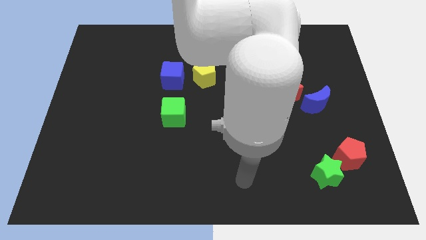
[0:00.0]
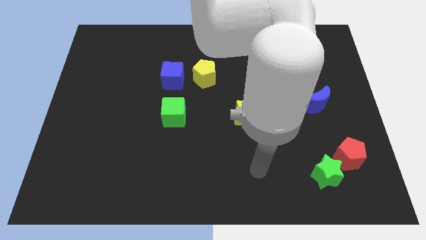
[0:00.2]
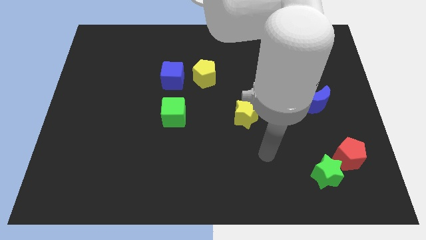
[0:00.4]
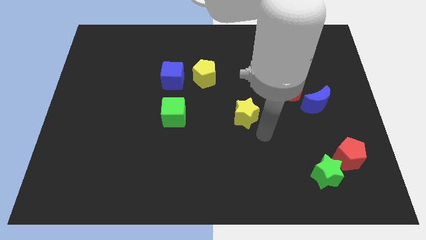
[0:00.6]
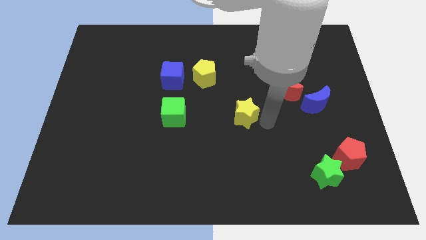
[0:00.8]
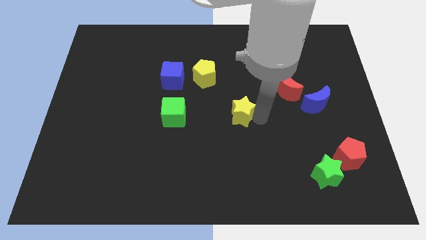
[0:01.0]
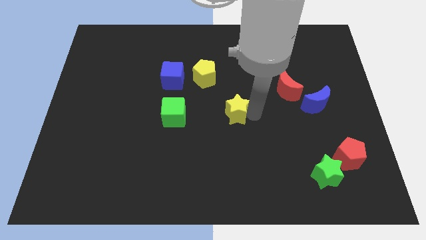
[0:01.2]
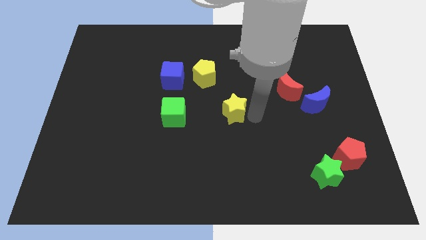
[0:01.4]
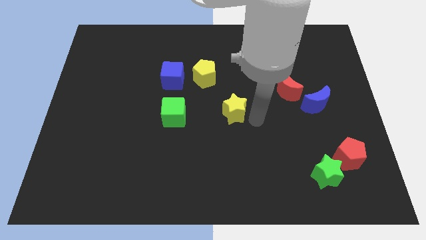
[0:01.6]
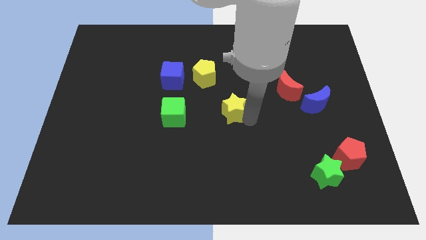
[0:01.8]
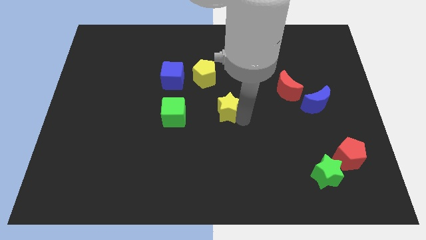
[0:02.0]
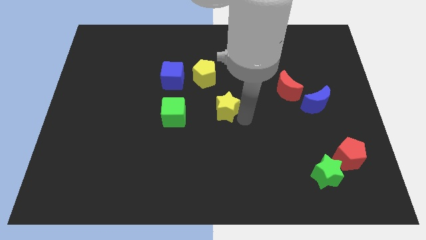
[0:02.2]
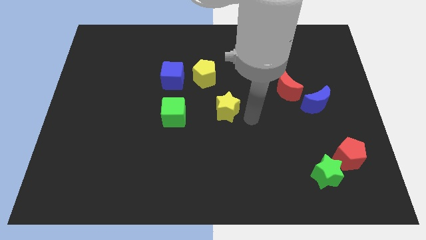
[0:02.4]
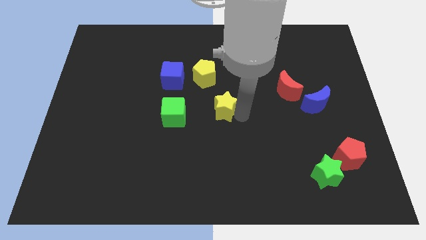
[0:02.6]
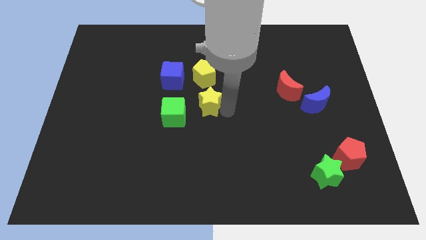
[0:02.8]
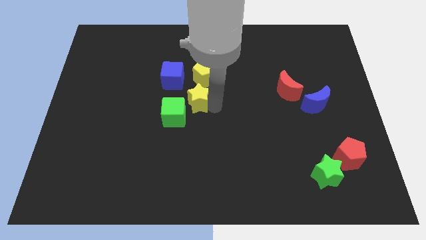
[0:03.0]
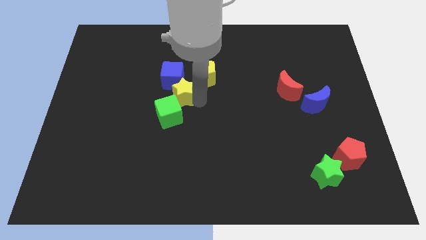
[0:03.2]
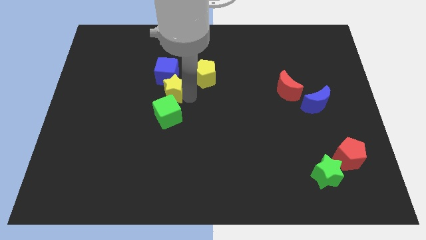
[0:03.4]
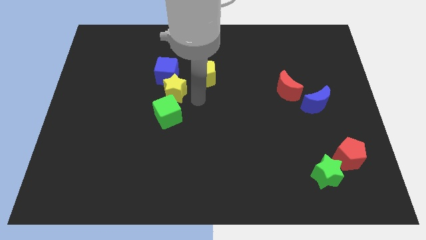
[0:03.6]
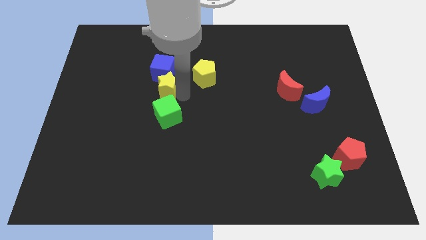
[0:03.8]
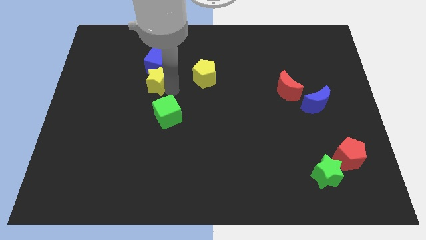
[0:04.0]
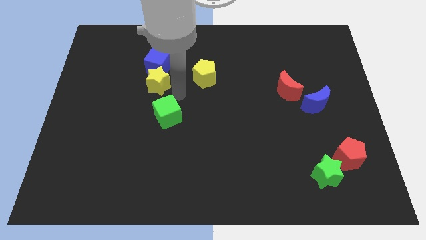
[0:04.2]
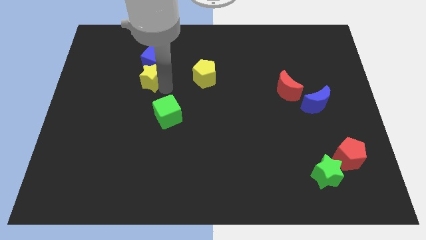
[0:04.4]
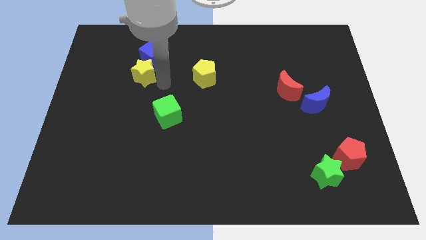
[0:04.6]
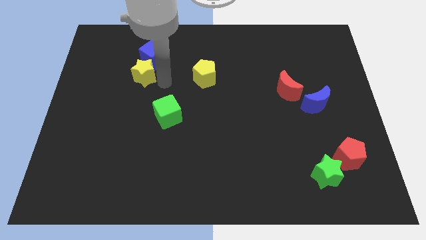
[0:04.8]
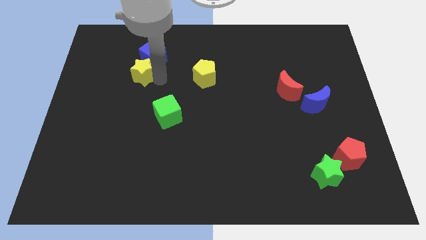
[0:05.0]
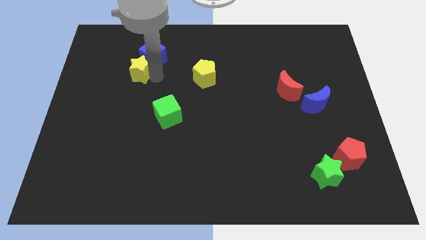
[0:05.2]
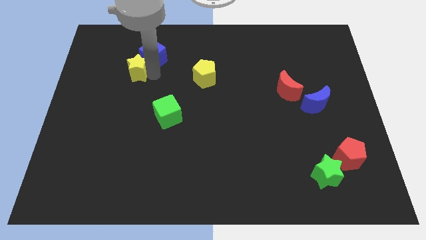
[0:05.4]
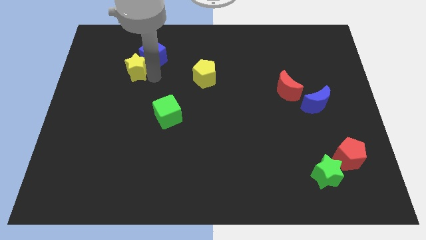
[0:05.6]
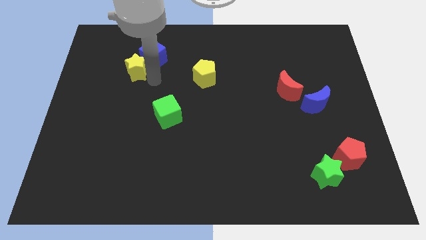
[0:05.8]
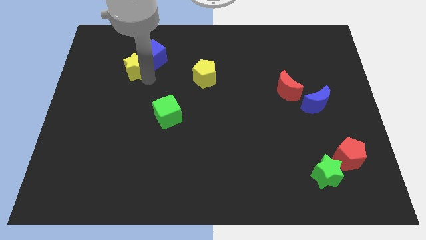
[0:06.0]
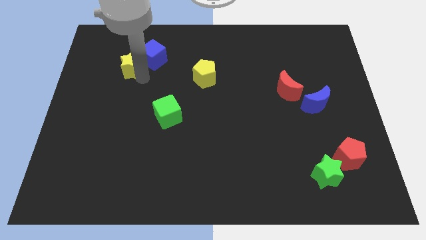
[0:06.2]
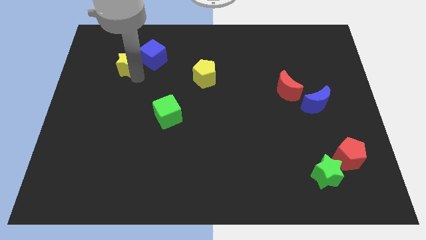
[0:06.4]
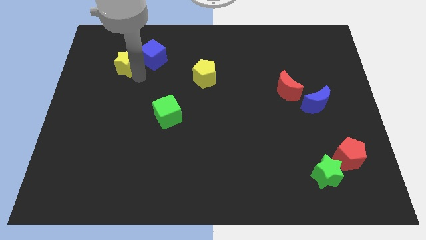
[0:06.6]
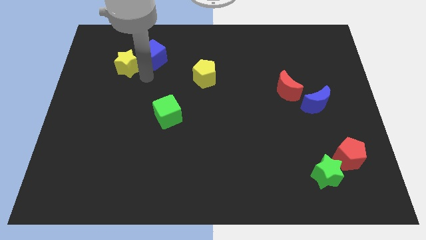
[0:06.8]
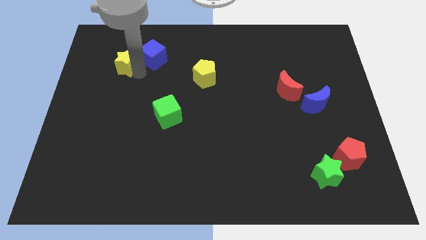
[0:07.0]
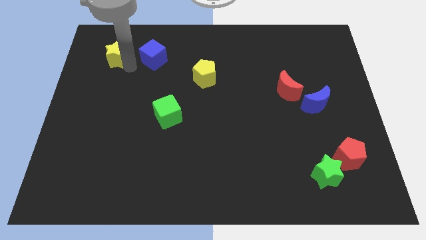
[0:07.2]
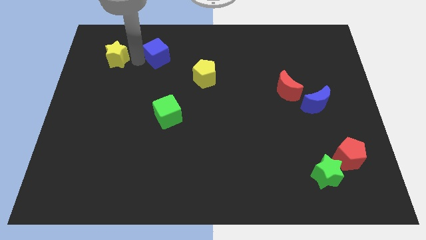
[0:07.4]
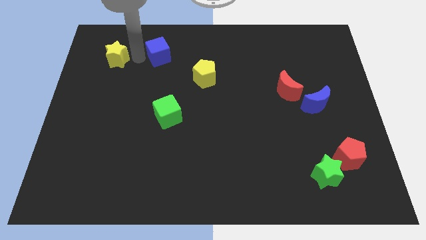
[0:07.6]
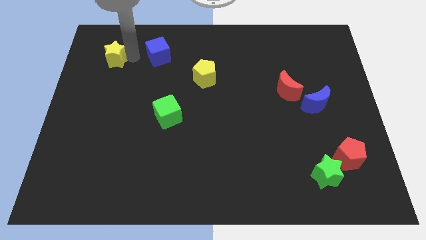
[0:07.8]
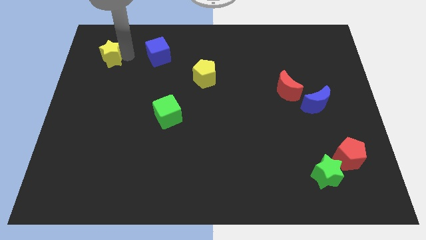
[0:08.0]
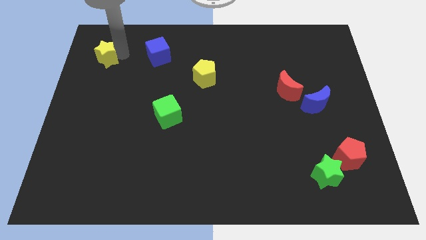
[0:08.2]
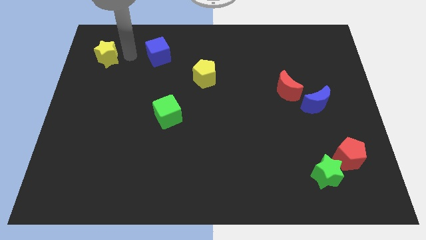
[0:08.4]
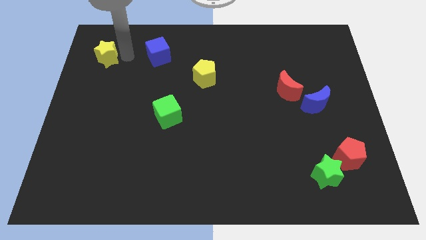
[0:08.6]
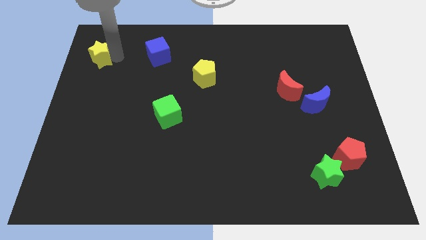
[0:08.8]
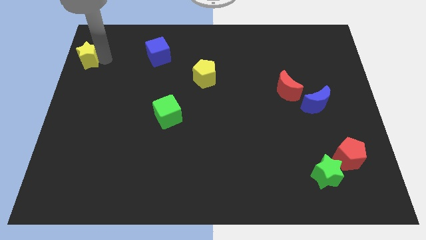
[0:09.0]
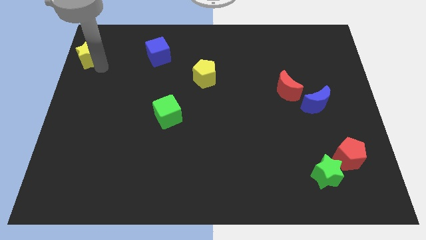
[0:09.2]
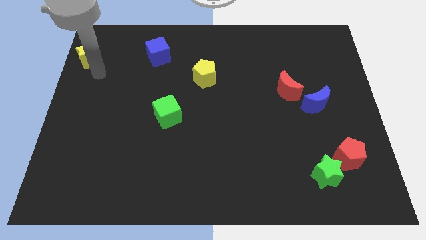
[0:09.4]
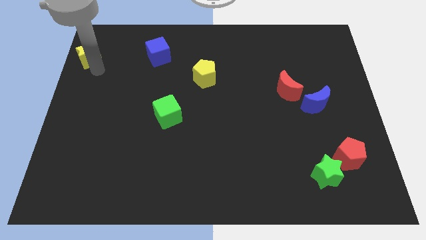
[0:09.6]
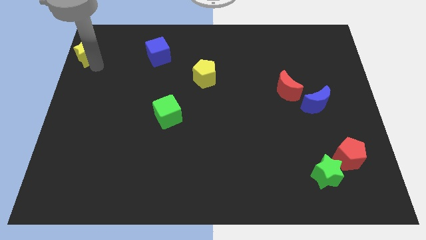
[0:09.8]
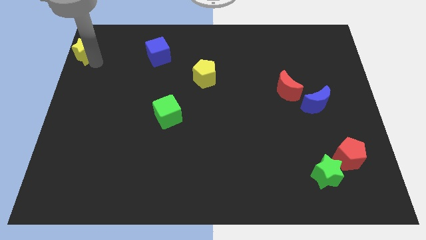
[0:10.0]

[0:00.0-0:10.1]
slide the yellow star to the upper left corner

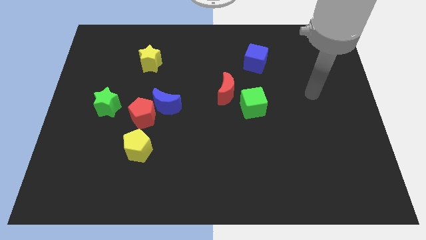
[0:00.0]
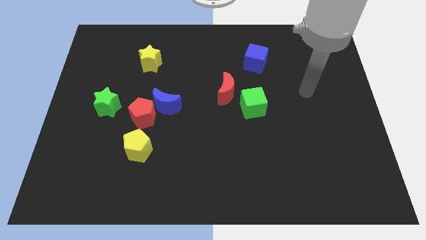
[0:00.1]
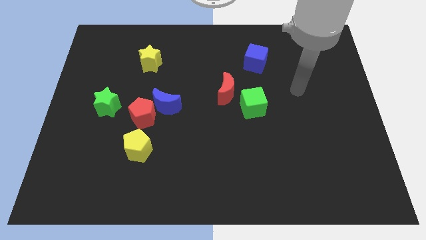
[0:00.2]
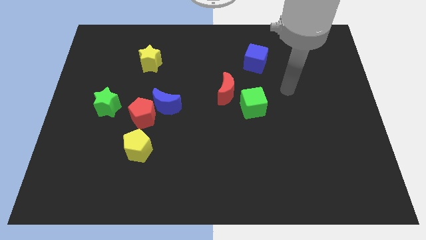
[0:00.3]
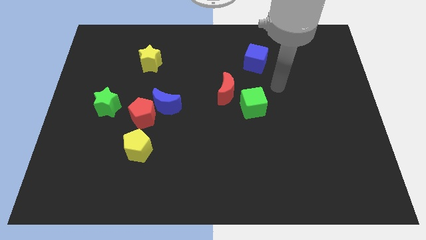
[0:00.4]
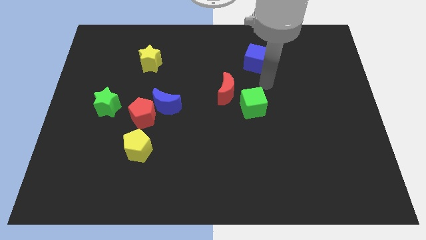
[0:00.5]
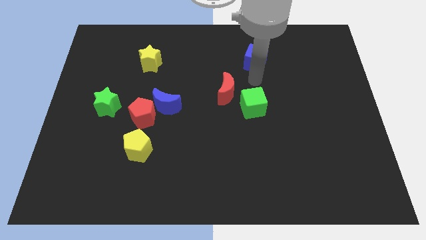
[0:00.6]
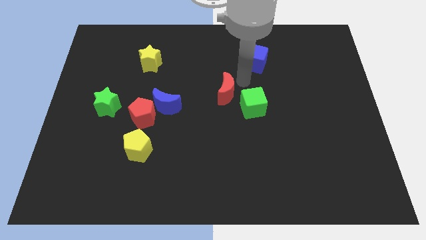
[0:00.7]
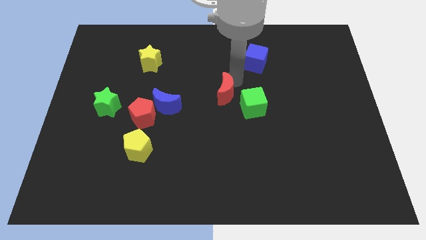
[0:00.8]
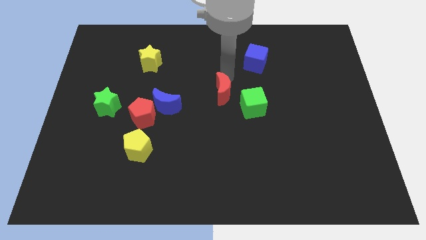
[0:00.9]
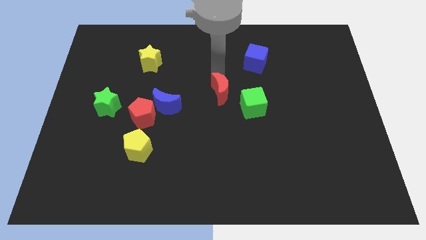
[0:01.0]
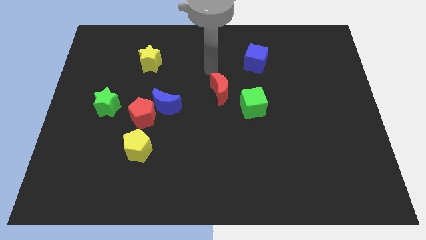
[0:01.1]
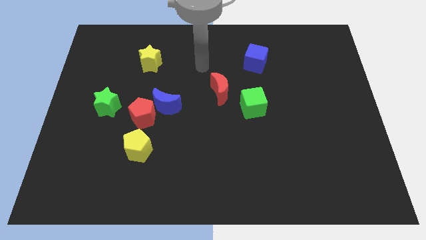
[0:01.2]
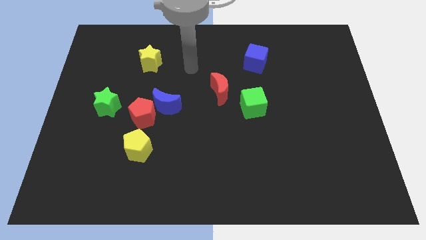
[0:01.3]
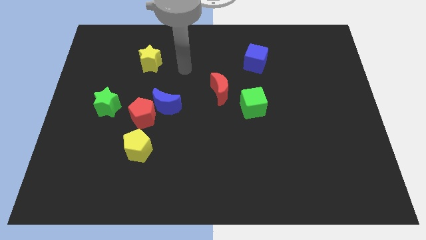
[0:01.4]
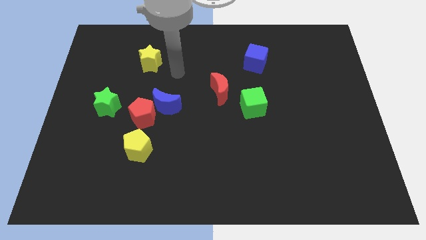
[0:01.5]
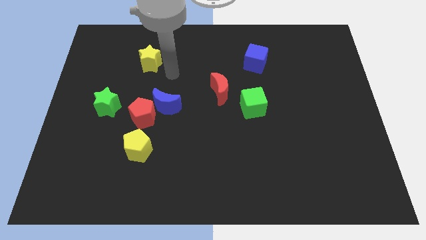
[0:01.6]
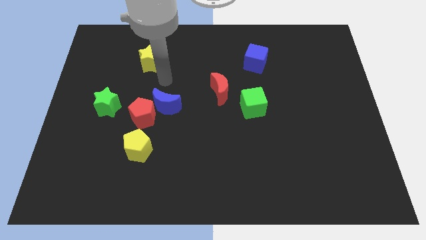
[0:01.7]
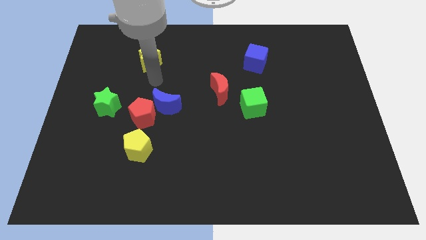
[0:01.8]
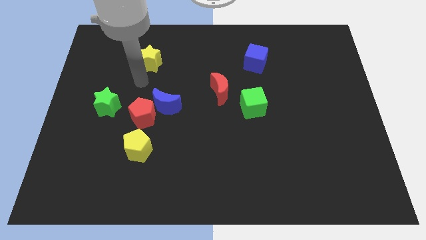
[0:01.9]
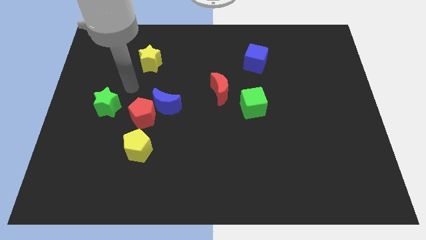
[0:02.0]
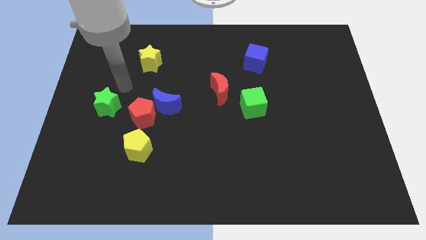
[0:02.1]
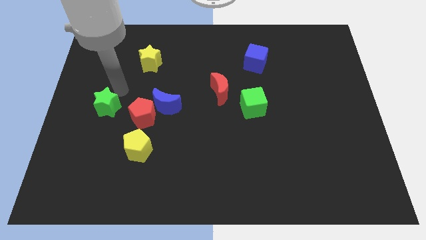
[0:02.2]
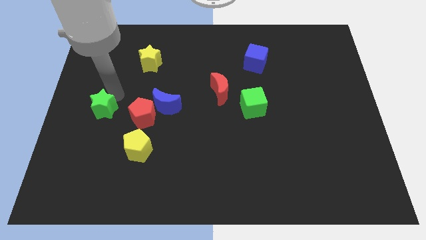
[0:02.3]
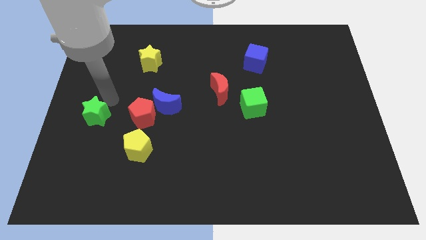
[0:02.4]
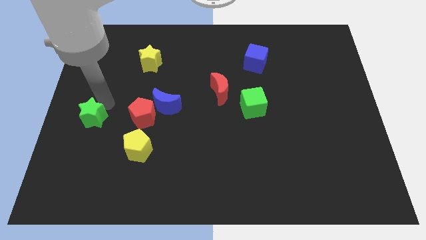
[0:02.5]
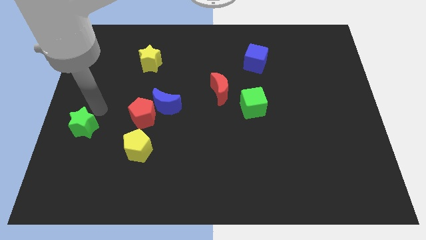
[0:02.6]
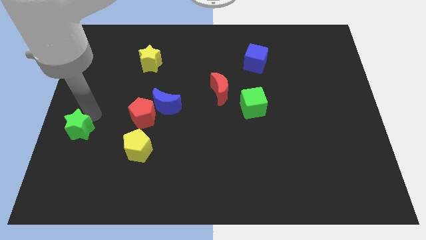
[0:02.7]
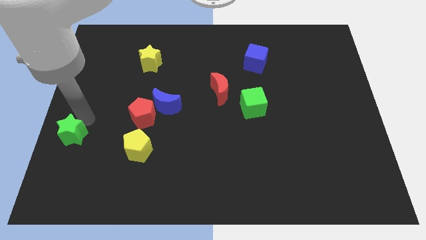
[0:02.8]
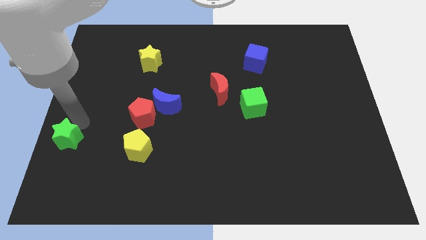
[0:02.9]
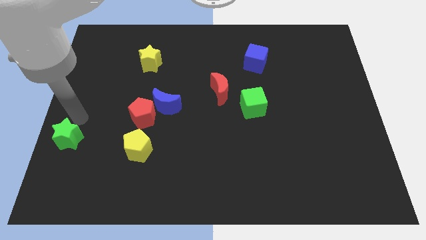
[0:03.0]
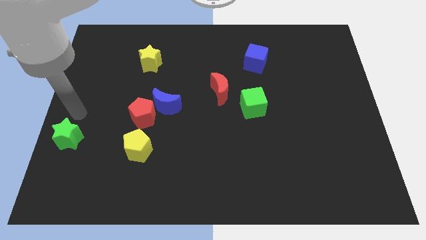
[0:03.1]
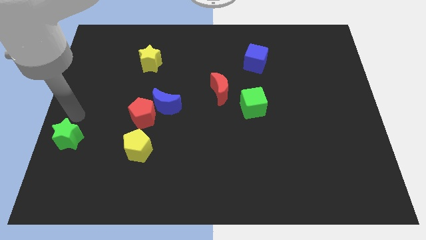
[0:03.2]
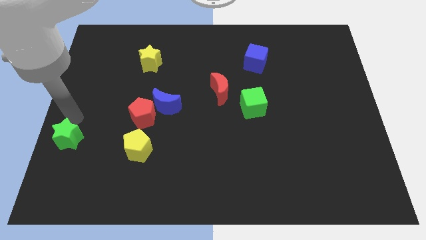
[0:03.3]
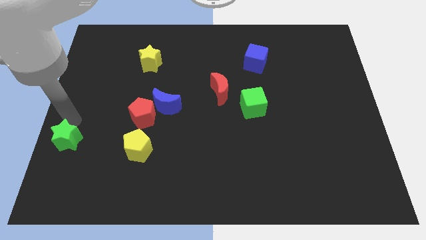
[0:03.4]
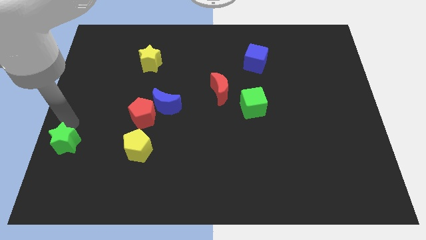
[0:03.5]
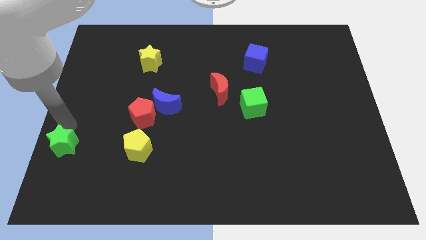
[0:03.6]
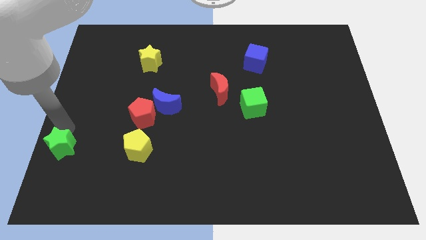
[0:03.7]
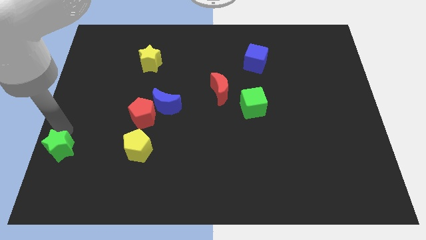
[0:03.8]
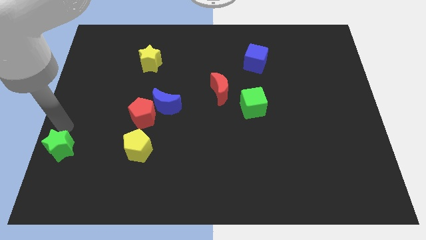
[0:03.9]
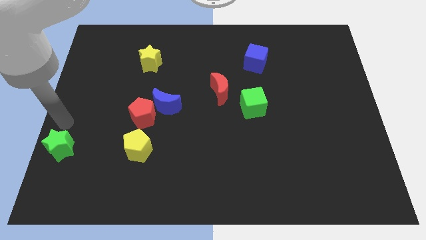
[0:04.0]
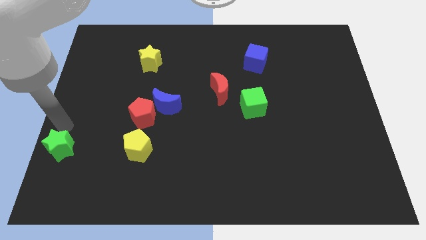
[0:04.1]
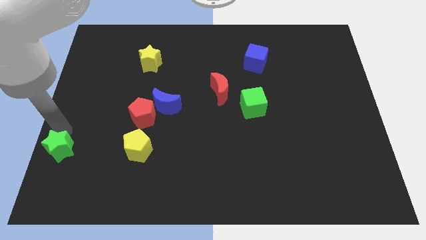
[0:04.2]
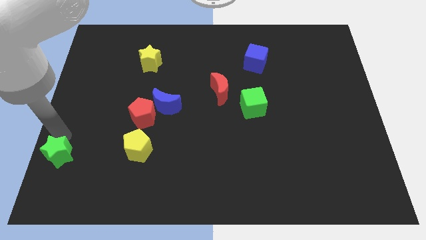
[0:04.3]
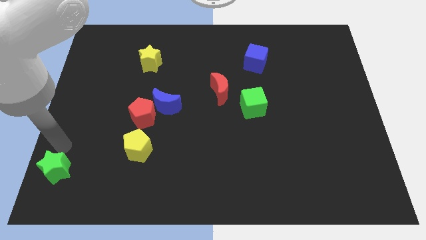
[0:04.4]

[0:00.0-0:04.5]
push the green star to the bottom left
